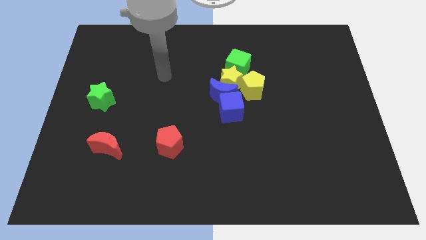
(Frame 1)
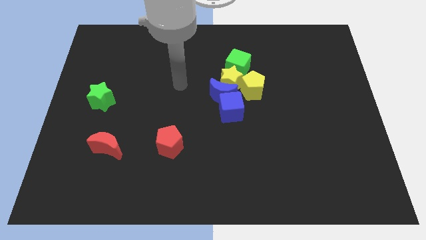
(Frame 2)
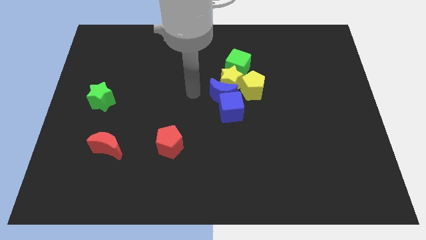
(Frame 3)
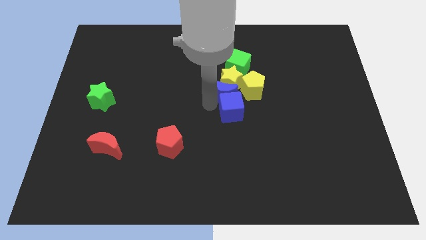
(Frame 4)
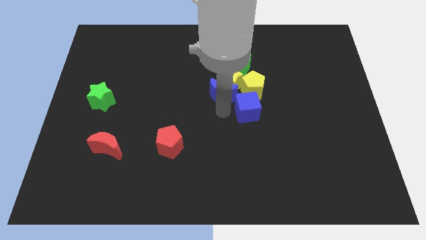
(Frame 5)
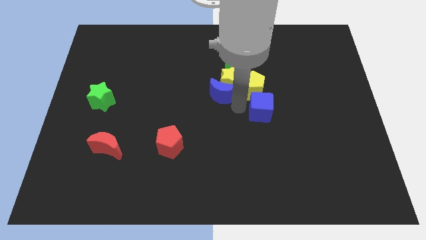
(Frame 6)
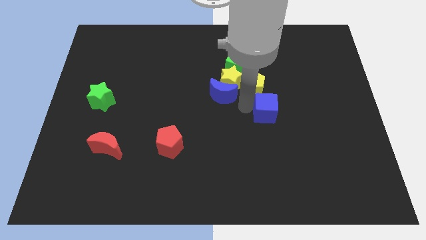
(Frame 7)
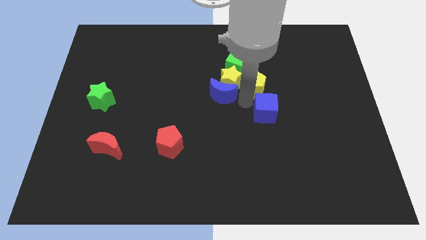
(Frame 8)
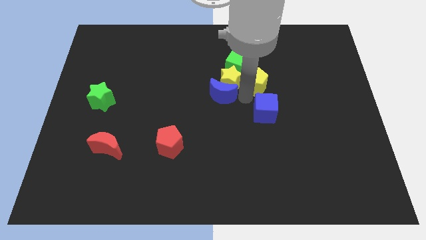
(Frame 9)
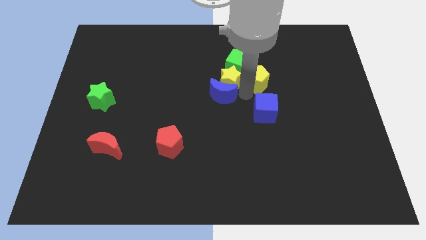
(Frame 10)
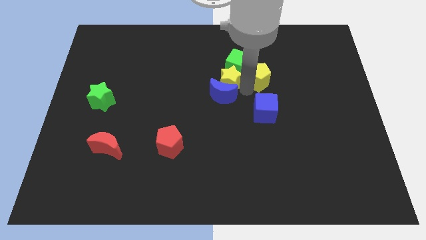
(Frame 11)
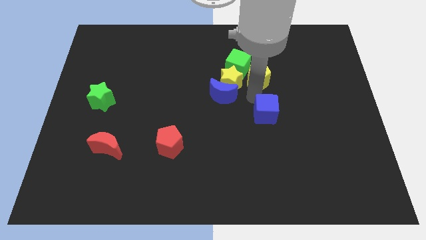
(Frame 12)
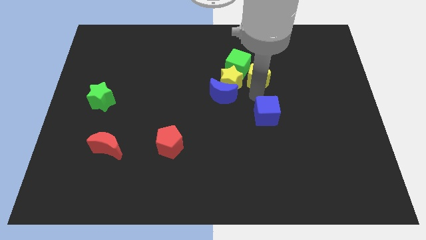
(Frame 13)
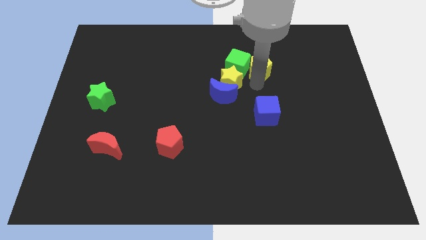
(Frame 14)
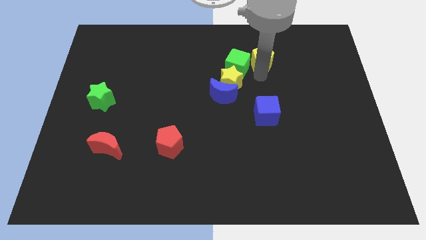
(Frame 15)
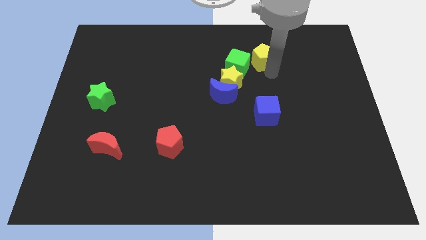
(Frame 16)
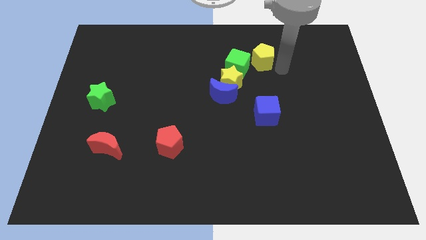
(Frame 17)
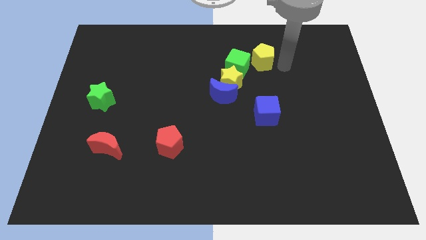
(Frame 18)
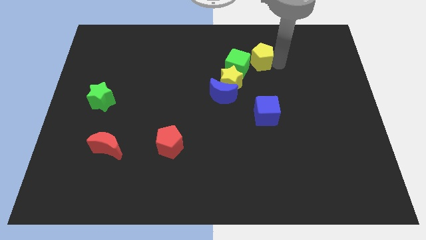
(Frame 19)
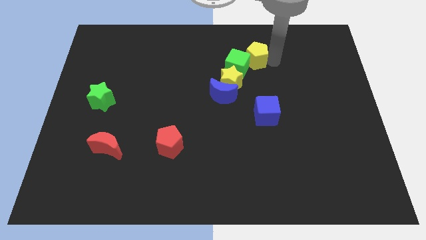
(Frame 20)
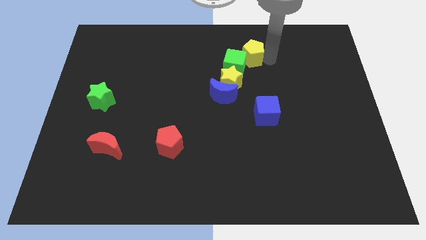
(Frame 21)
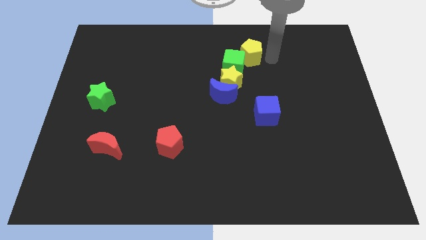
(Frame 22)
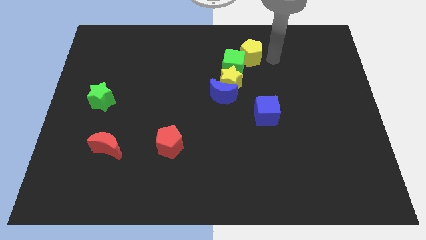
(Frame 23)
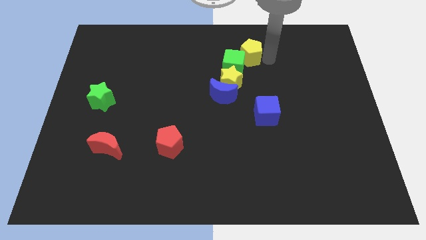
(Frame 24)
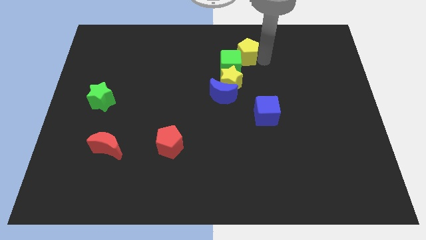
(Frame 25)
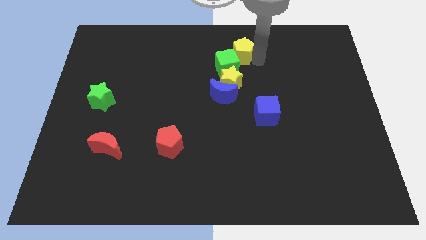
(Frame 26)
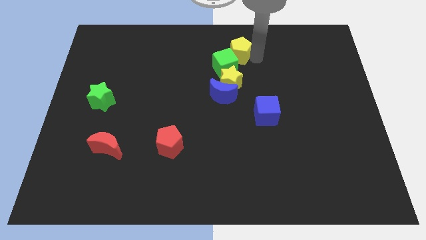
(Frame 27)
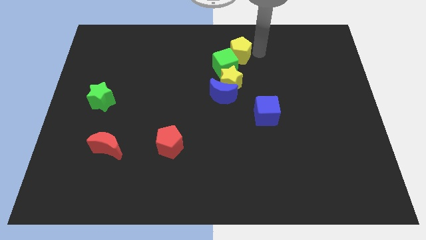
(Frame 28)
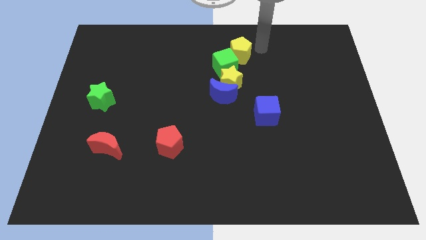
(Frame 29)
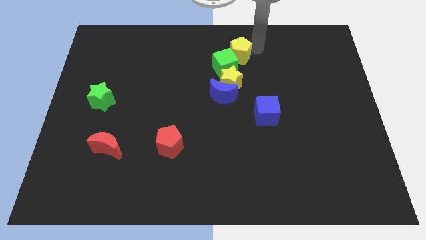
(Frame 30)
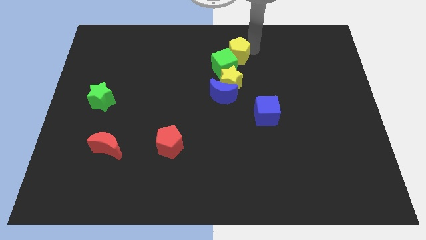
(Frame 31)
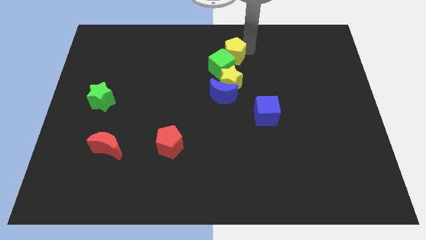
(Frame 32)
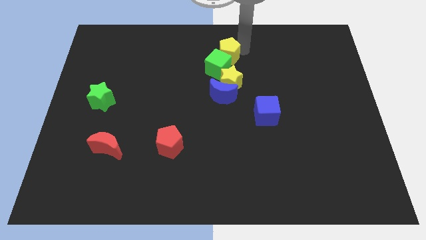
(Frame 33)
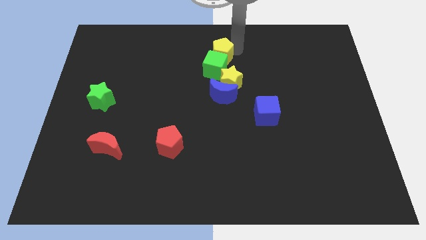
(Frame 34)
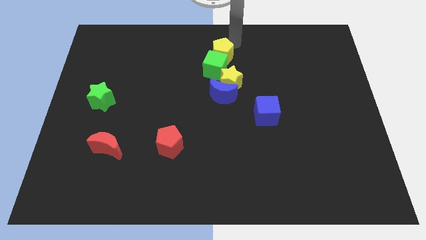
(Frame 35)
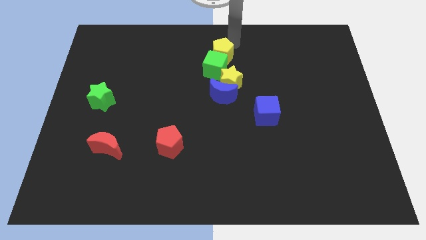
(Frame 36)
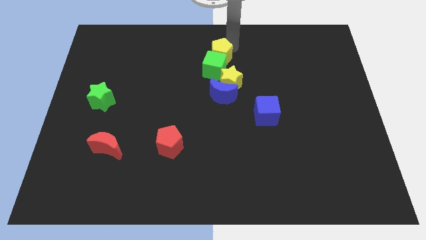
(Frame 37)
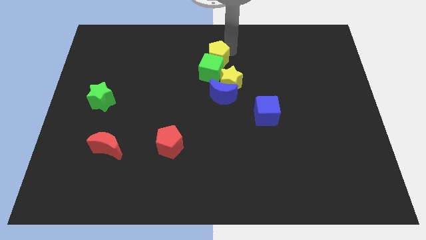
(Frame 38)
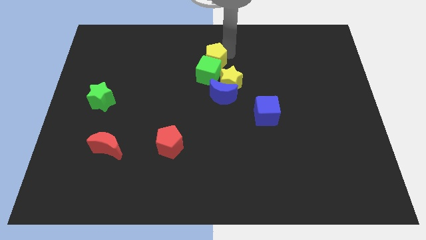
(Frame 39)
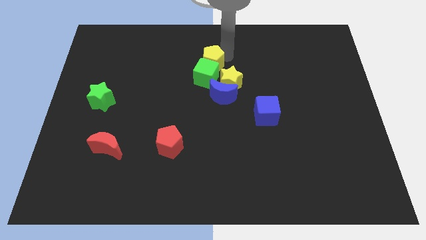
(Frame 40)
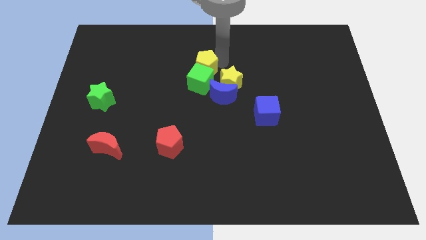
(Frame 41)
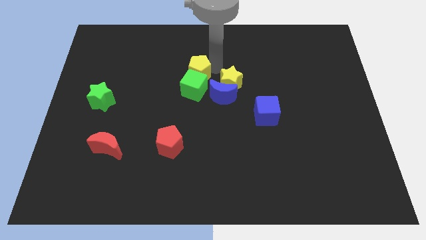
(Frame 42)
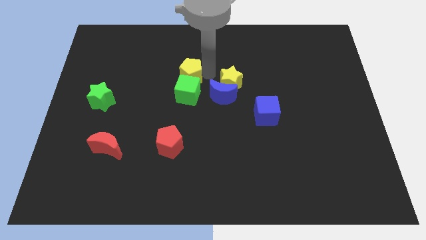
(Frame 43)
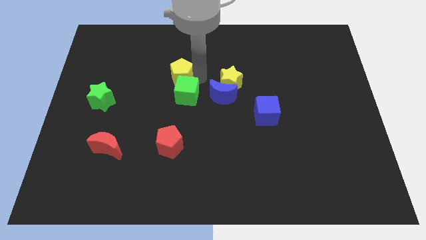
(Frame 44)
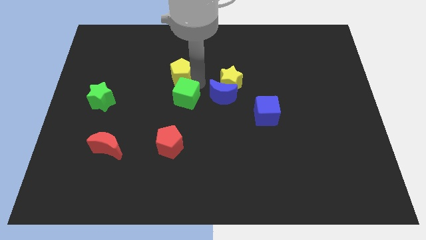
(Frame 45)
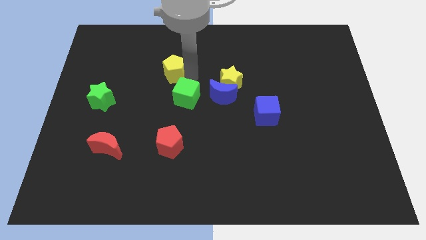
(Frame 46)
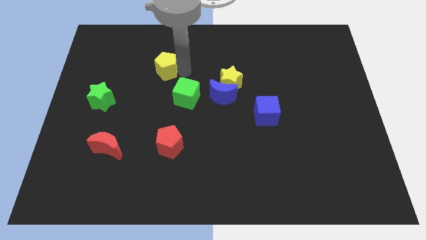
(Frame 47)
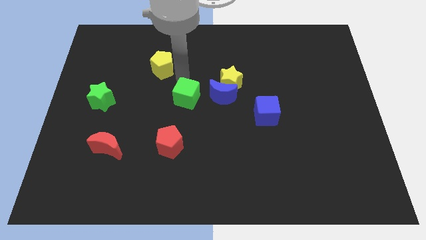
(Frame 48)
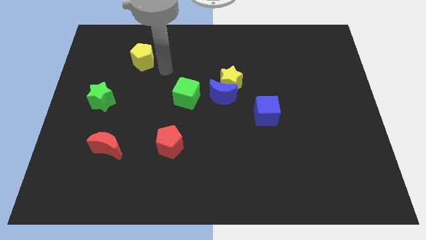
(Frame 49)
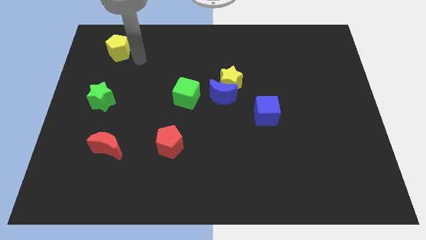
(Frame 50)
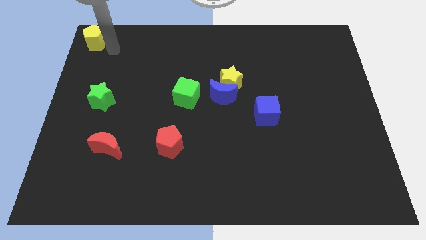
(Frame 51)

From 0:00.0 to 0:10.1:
move the yellow pentagon to the top left of the board

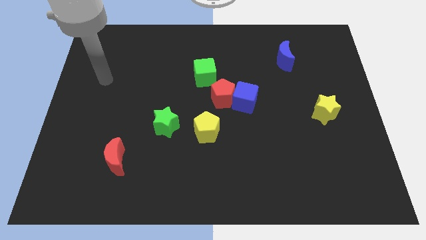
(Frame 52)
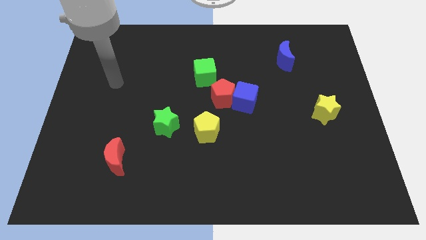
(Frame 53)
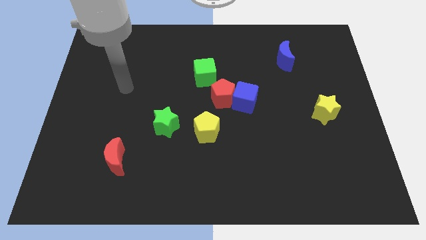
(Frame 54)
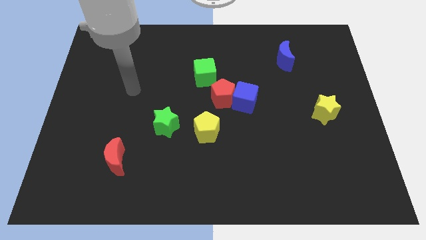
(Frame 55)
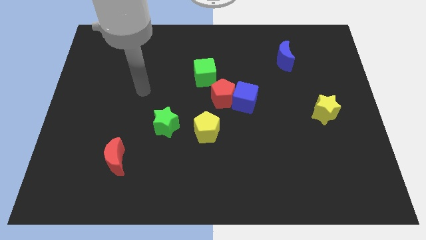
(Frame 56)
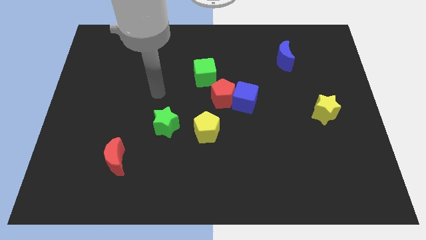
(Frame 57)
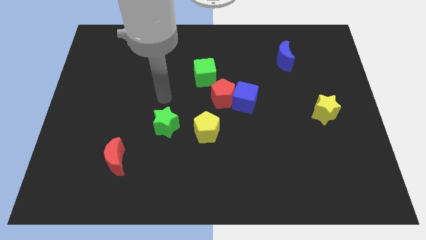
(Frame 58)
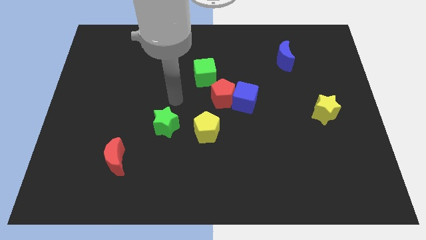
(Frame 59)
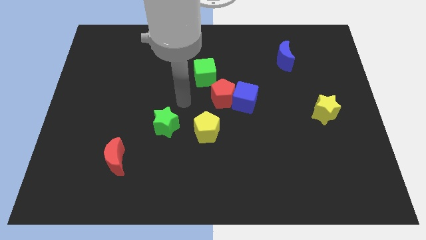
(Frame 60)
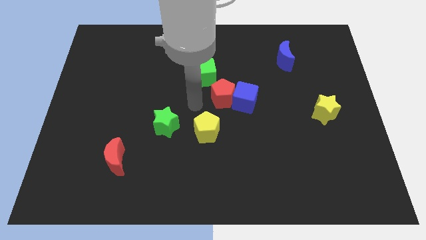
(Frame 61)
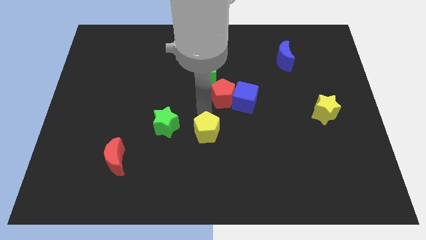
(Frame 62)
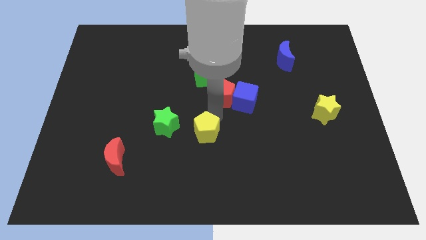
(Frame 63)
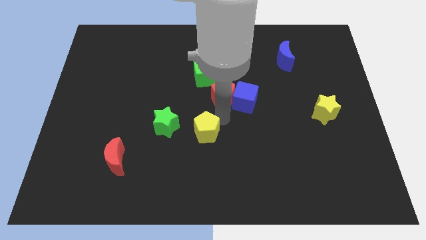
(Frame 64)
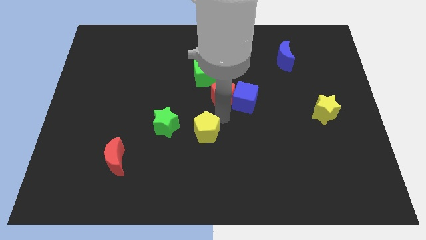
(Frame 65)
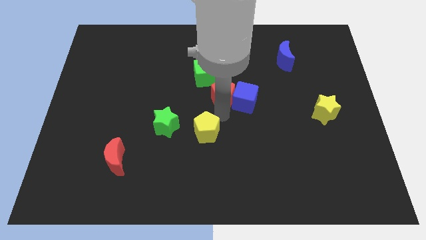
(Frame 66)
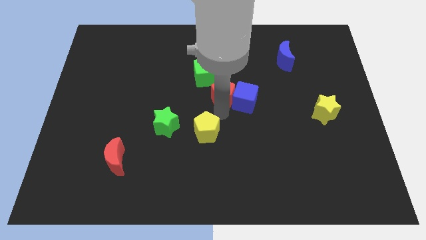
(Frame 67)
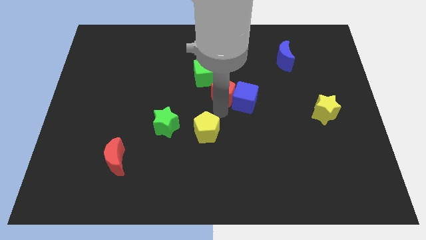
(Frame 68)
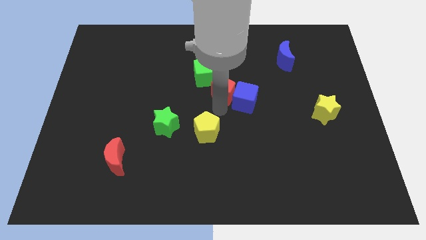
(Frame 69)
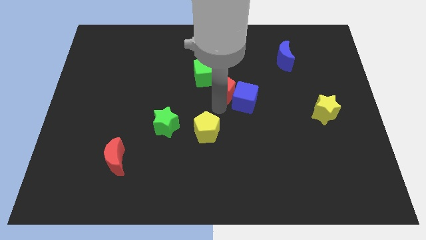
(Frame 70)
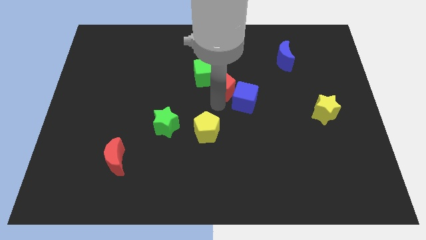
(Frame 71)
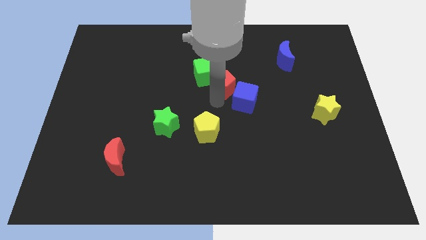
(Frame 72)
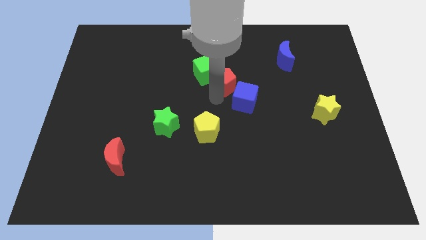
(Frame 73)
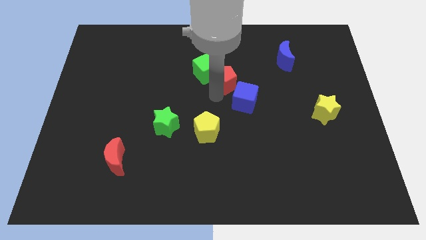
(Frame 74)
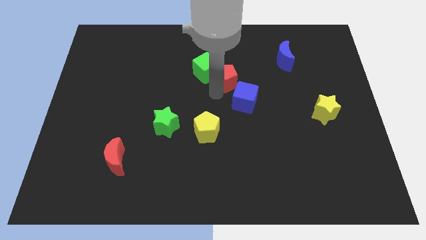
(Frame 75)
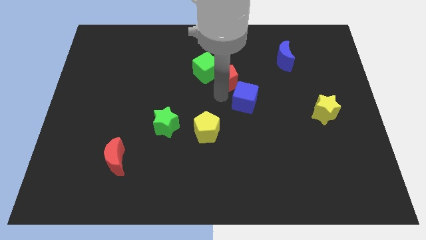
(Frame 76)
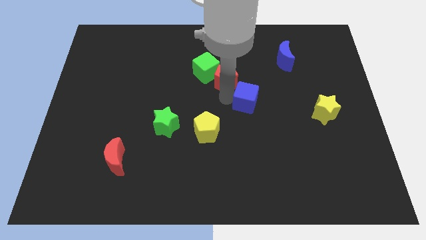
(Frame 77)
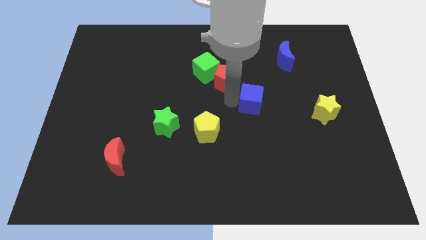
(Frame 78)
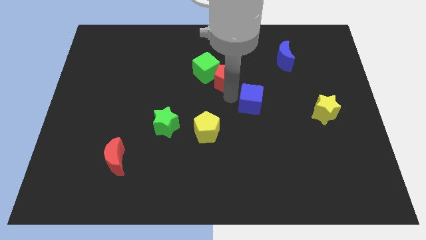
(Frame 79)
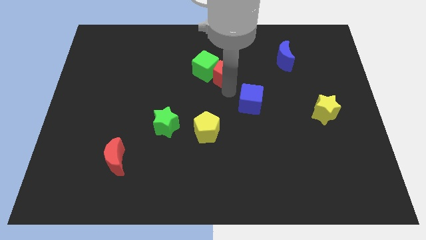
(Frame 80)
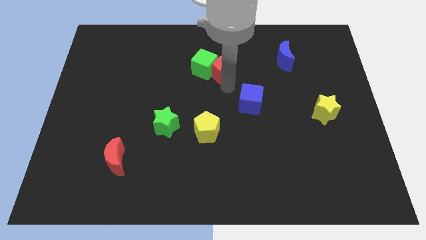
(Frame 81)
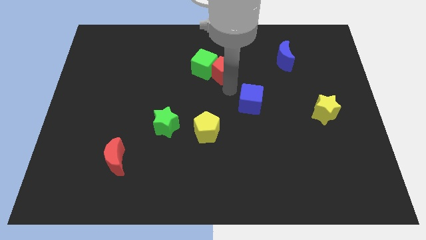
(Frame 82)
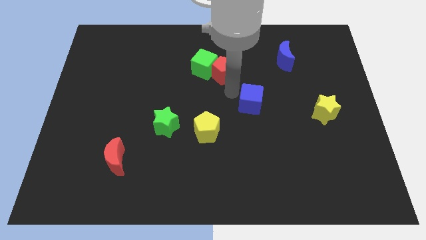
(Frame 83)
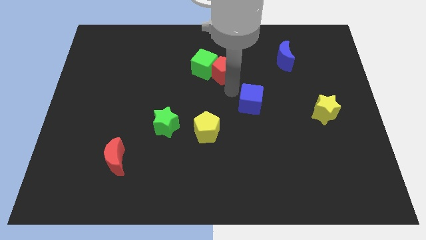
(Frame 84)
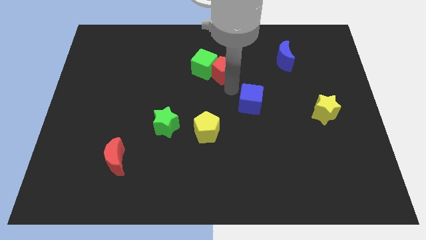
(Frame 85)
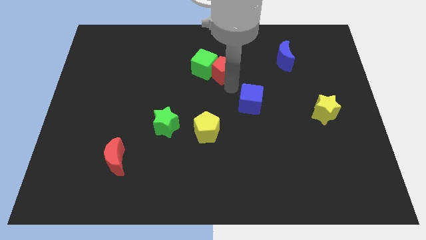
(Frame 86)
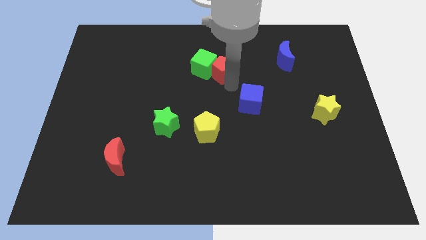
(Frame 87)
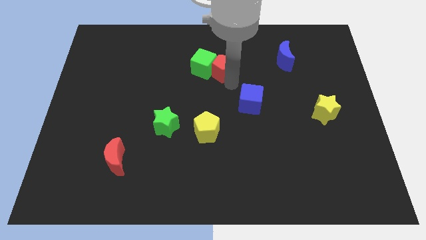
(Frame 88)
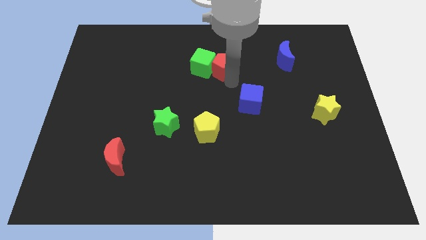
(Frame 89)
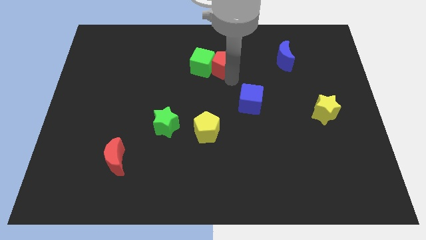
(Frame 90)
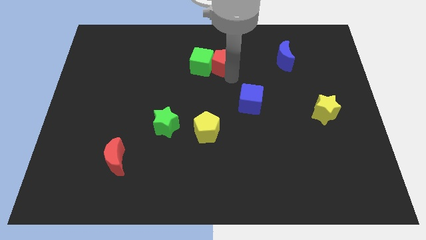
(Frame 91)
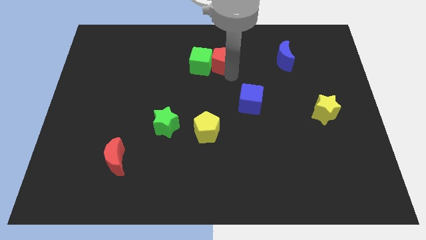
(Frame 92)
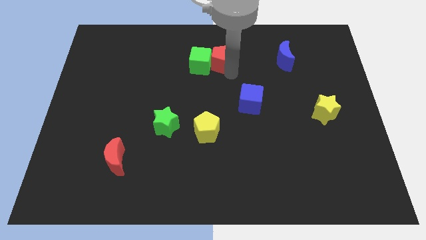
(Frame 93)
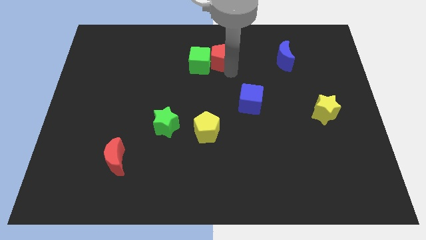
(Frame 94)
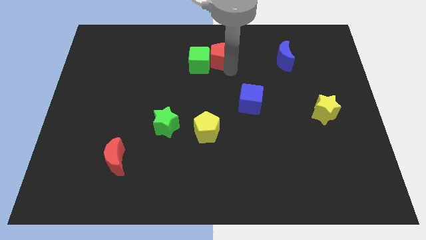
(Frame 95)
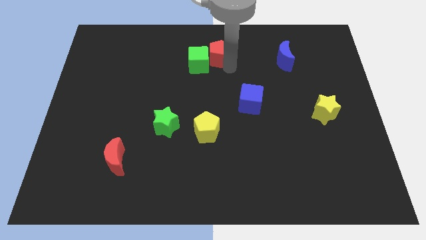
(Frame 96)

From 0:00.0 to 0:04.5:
push the red pentagon to the top side
